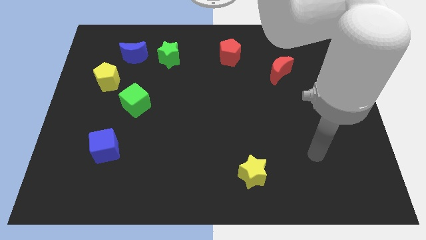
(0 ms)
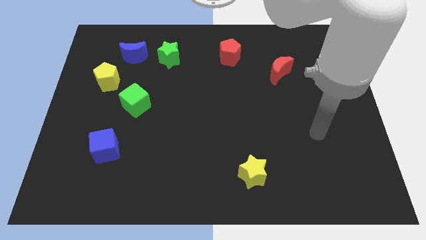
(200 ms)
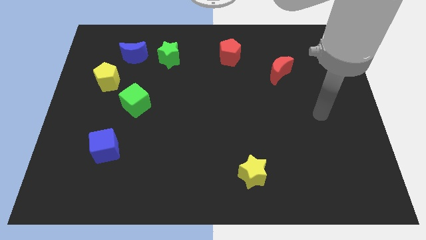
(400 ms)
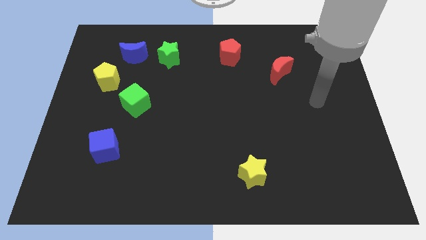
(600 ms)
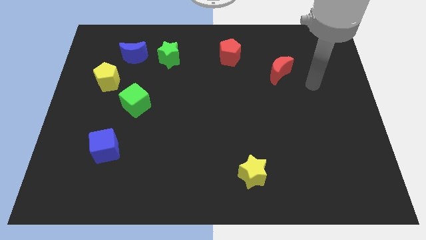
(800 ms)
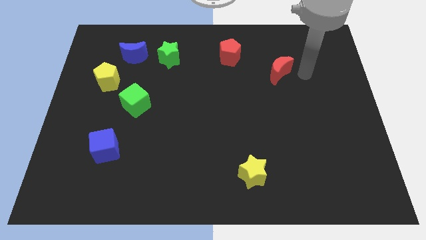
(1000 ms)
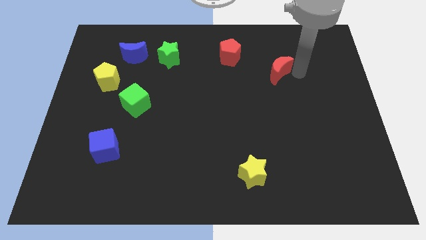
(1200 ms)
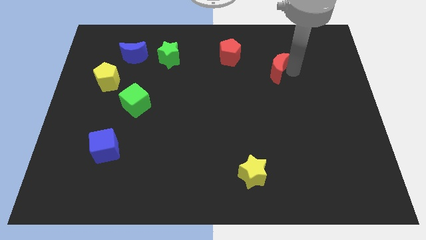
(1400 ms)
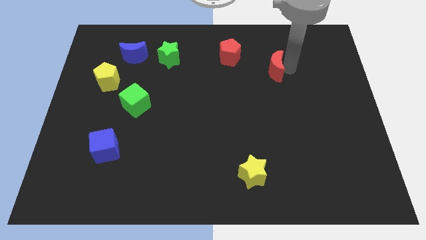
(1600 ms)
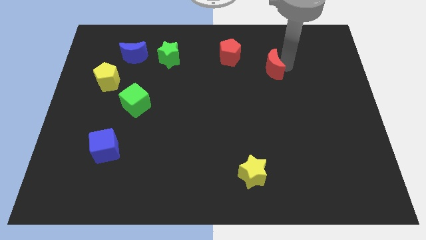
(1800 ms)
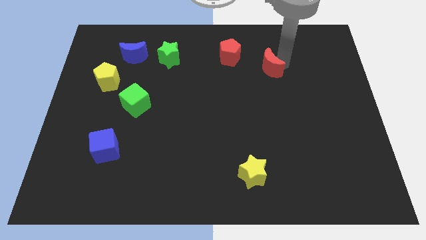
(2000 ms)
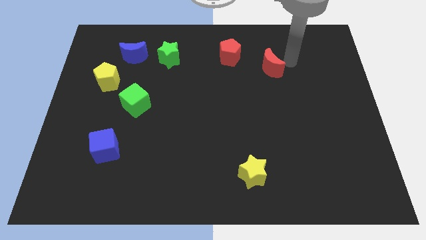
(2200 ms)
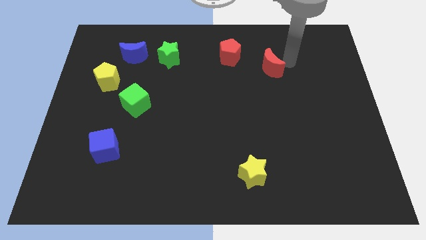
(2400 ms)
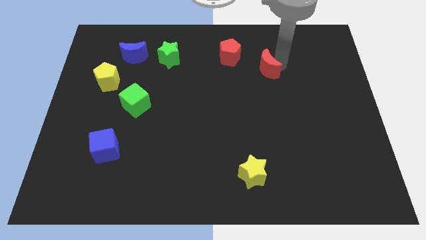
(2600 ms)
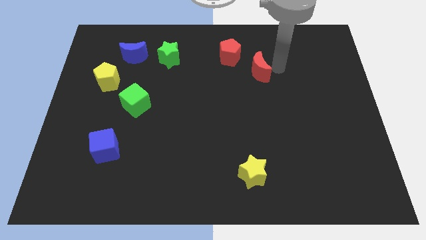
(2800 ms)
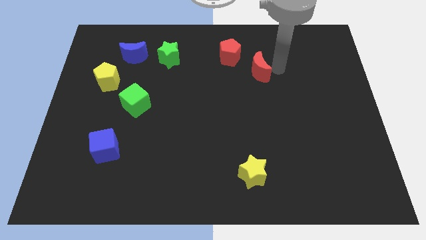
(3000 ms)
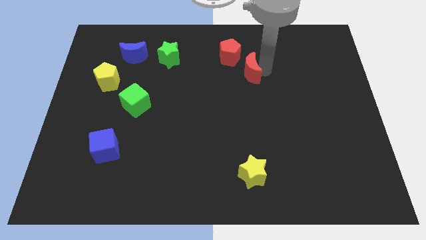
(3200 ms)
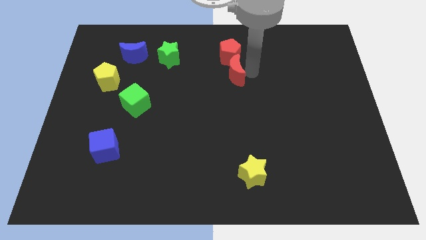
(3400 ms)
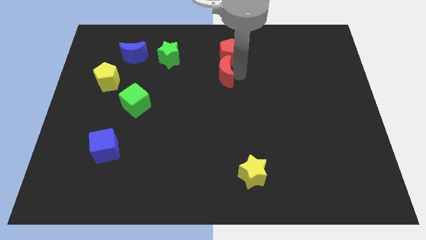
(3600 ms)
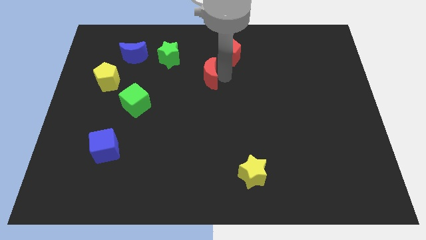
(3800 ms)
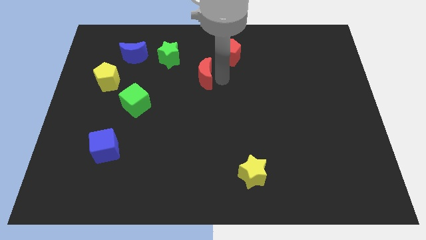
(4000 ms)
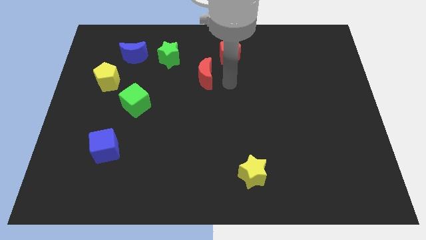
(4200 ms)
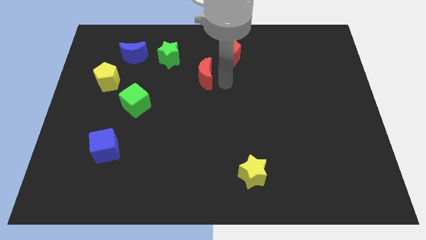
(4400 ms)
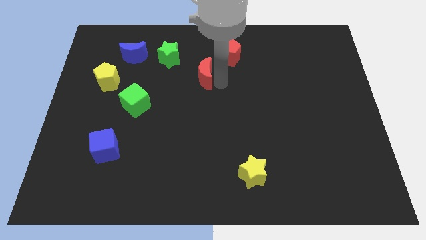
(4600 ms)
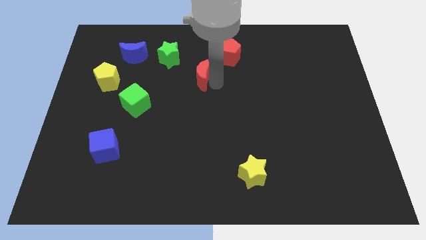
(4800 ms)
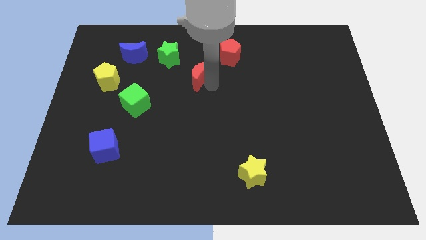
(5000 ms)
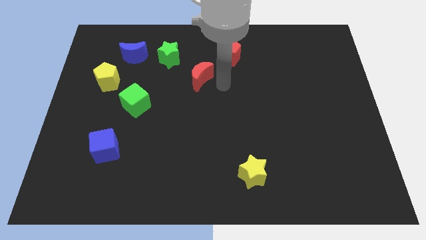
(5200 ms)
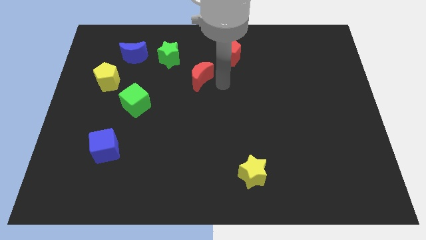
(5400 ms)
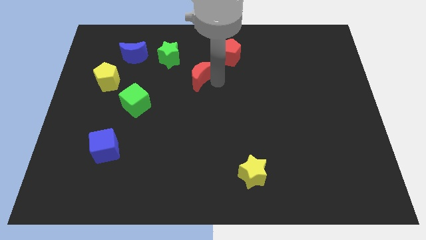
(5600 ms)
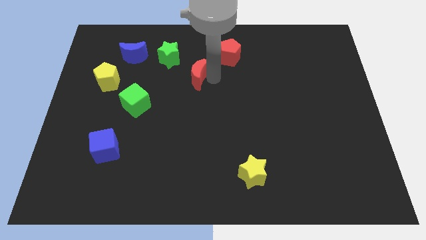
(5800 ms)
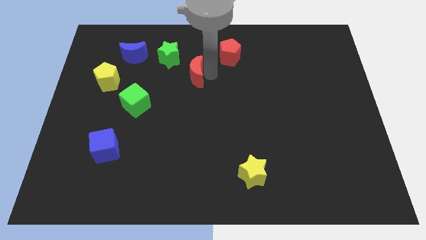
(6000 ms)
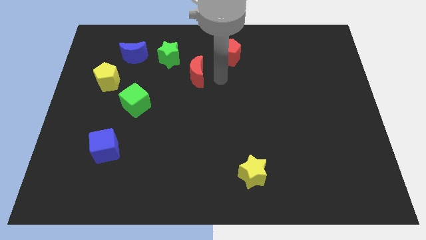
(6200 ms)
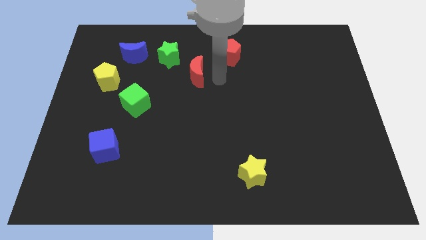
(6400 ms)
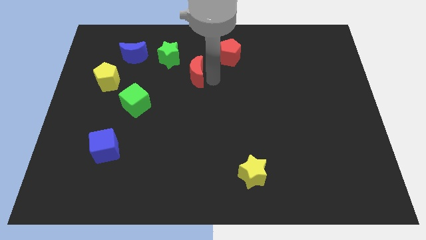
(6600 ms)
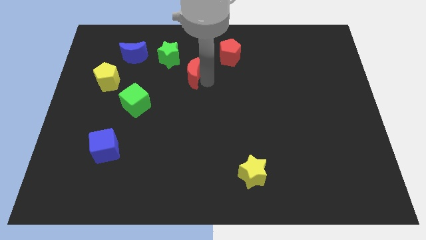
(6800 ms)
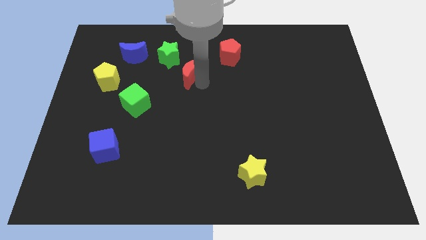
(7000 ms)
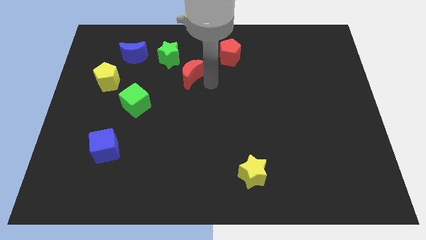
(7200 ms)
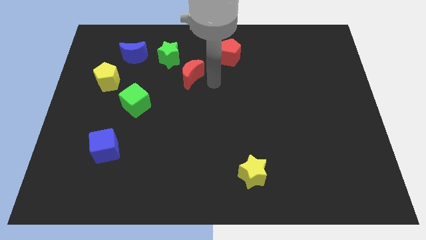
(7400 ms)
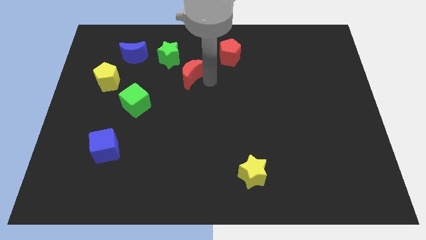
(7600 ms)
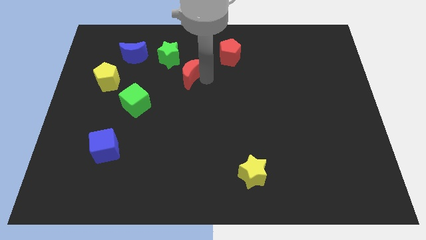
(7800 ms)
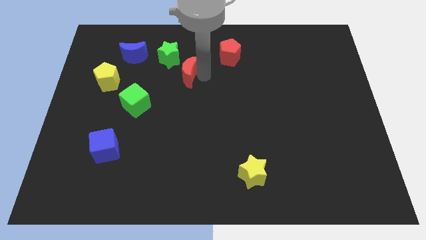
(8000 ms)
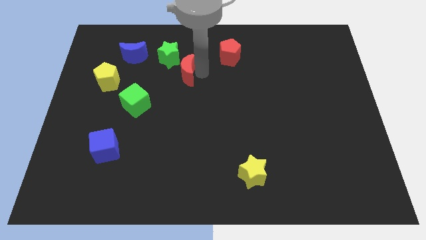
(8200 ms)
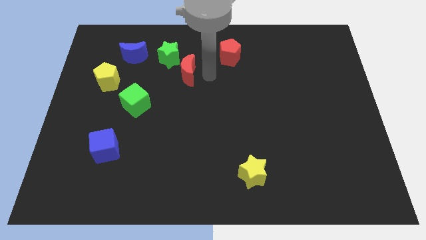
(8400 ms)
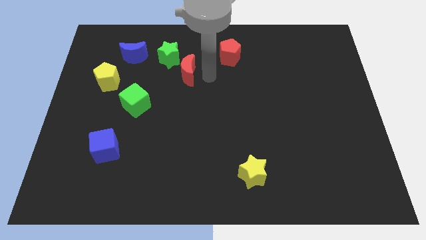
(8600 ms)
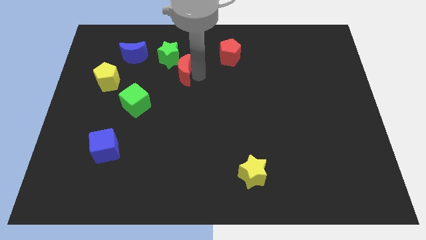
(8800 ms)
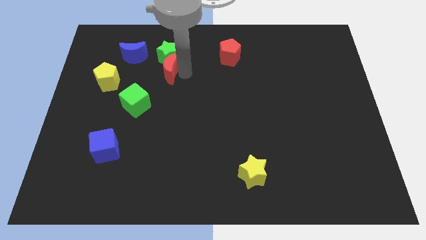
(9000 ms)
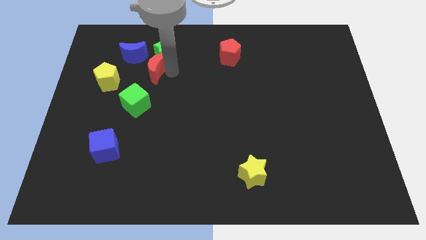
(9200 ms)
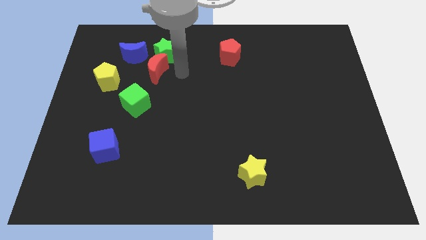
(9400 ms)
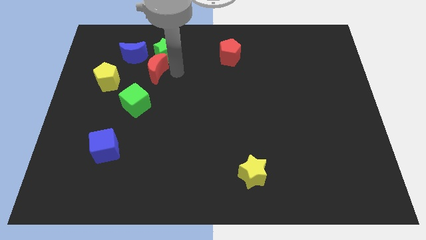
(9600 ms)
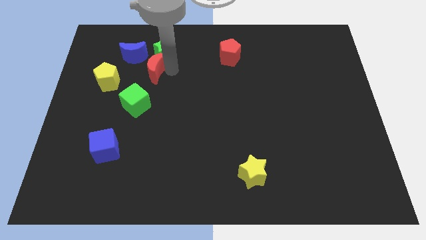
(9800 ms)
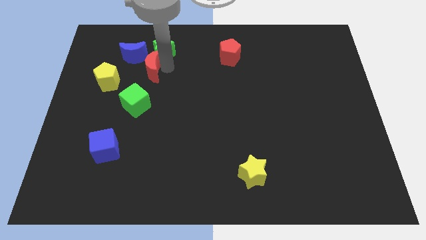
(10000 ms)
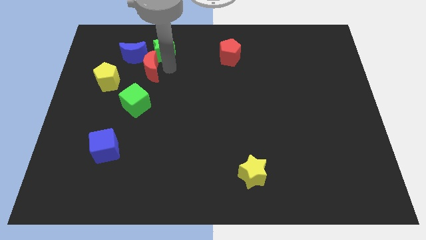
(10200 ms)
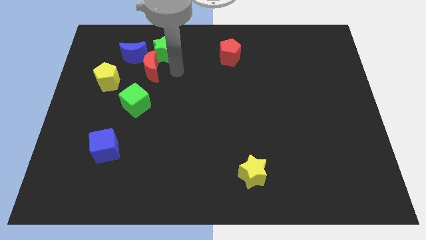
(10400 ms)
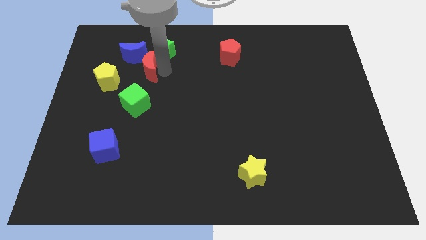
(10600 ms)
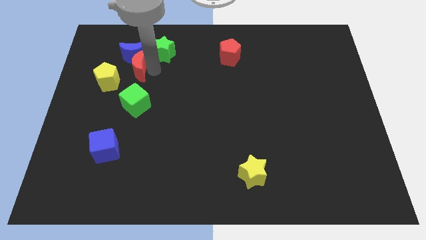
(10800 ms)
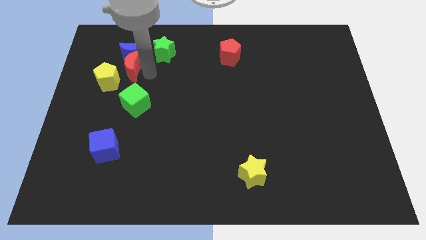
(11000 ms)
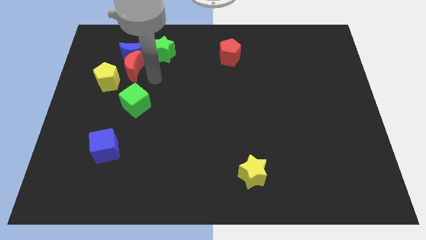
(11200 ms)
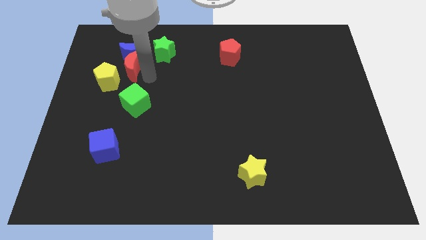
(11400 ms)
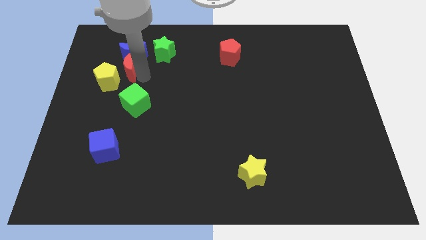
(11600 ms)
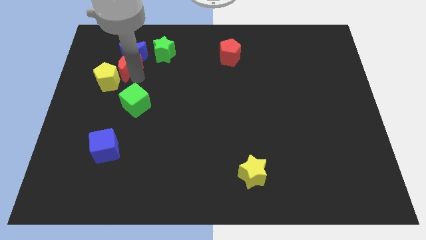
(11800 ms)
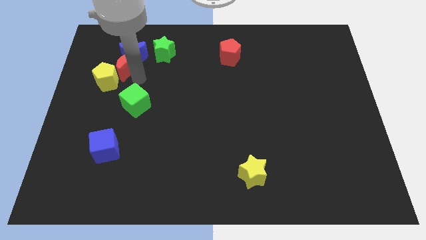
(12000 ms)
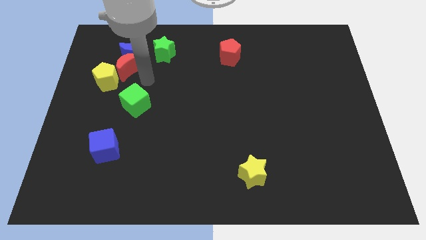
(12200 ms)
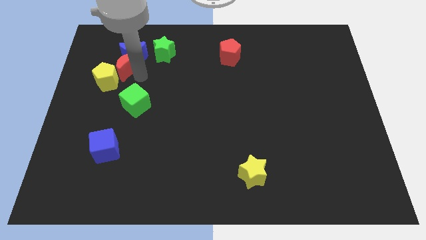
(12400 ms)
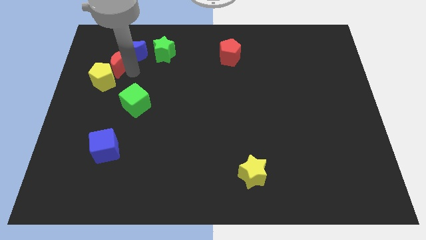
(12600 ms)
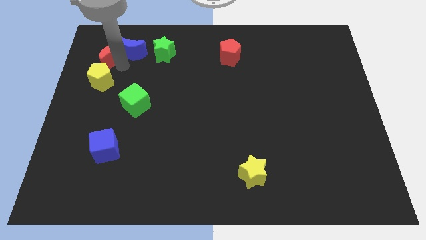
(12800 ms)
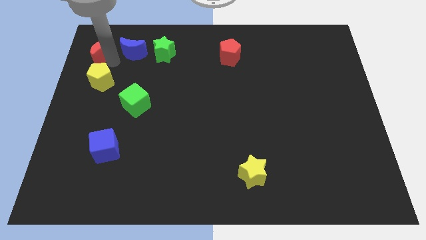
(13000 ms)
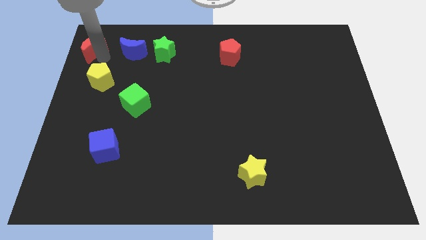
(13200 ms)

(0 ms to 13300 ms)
put the red moon to the top left
